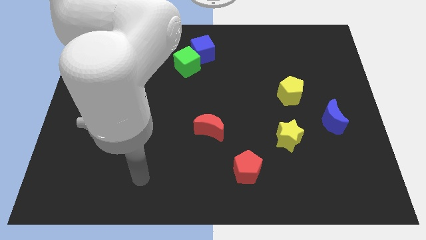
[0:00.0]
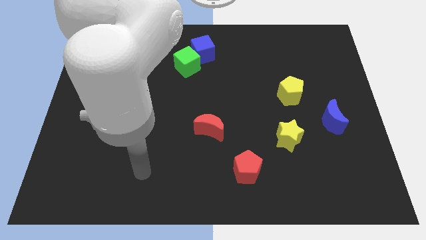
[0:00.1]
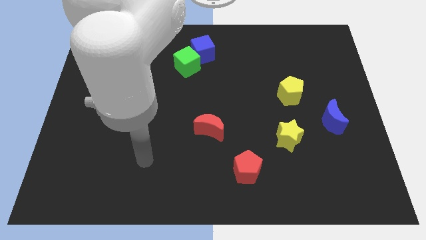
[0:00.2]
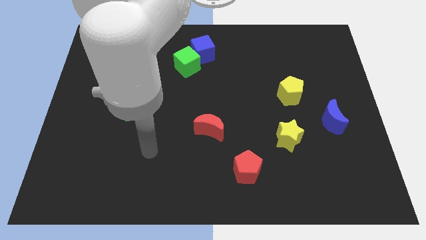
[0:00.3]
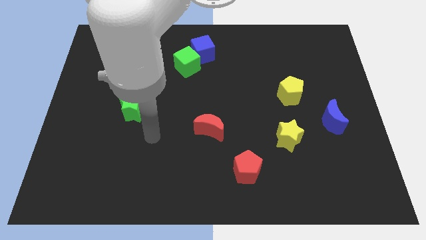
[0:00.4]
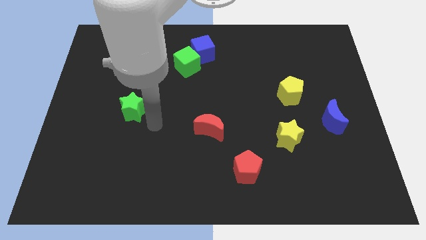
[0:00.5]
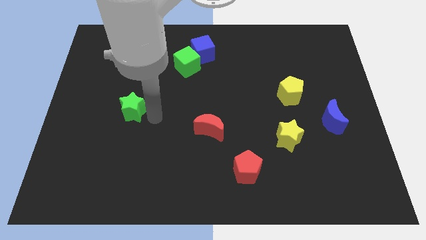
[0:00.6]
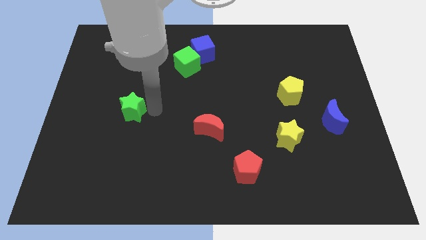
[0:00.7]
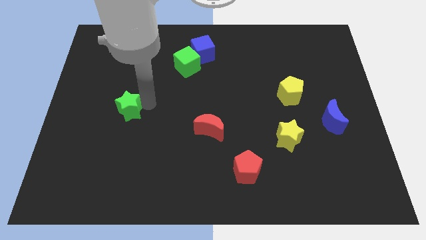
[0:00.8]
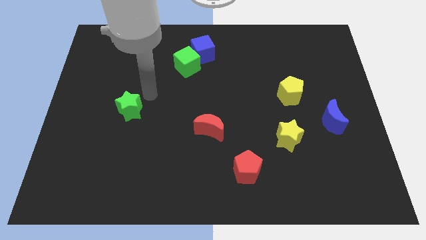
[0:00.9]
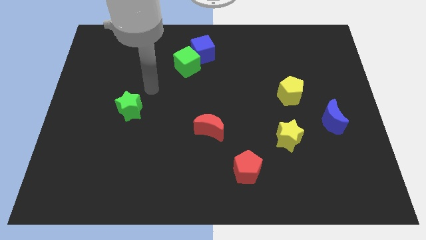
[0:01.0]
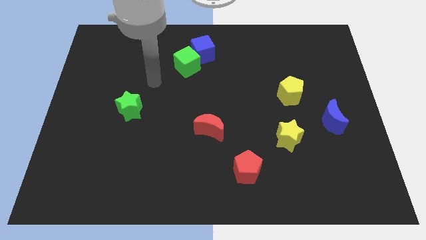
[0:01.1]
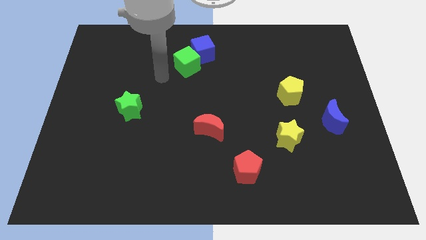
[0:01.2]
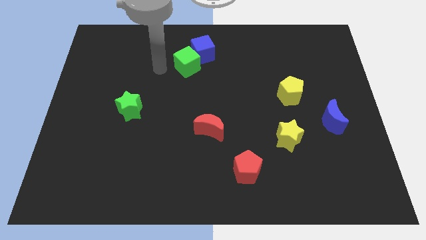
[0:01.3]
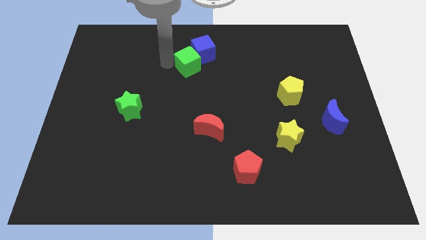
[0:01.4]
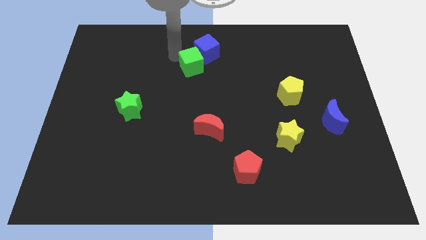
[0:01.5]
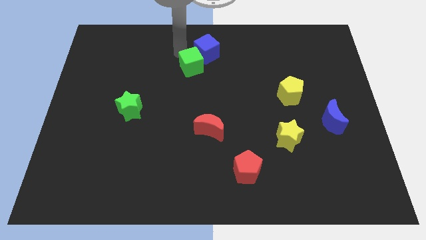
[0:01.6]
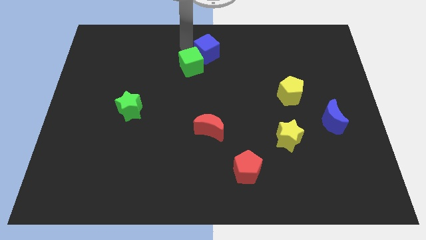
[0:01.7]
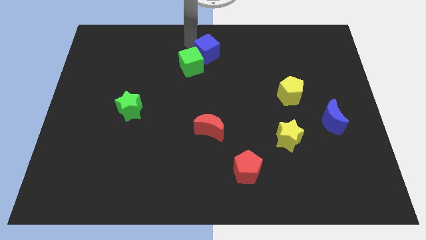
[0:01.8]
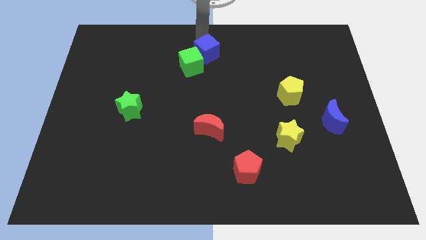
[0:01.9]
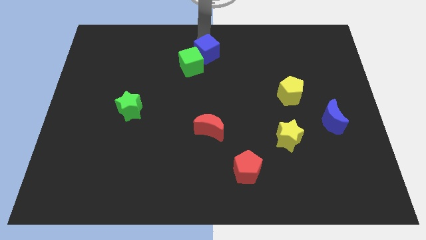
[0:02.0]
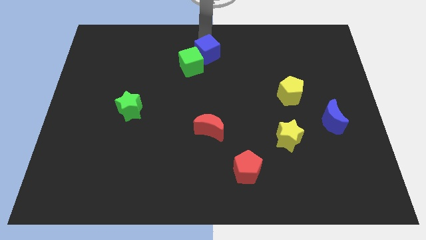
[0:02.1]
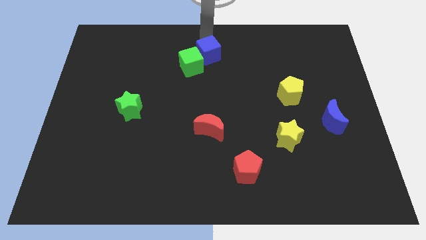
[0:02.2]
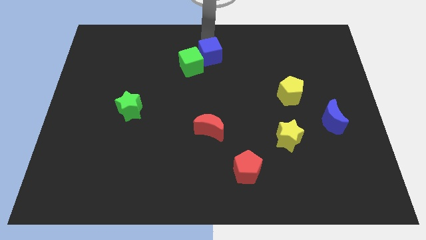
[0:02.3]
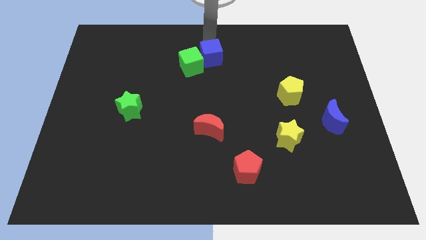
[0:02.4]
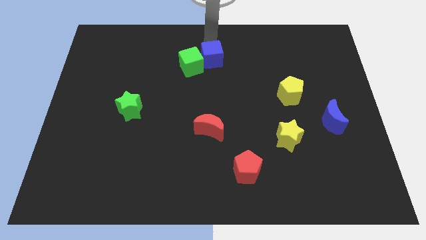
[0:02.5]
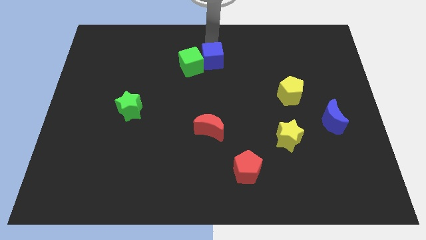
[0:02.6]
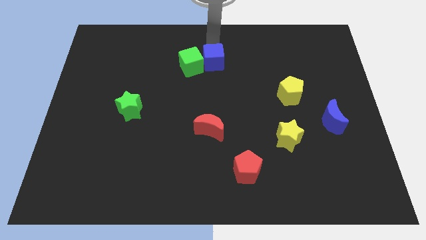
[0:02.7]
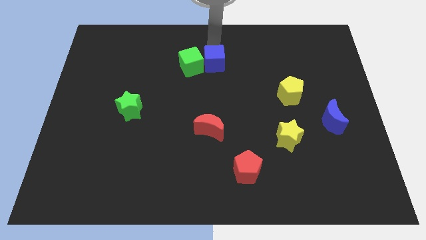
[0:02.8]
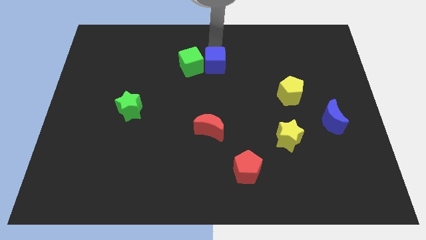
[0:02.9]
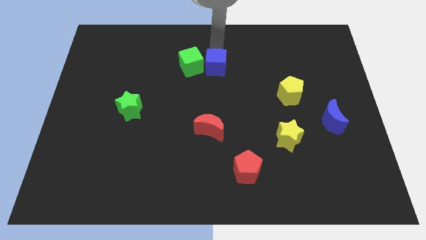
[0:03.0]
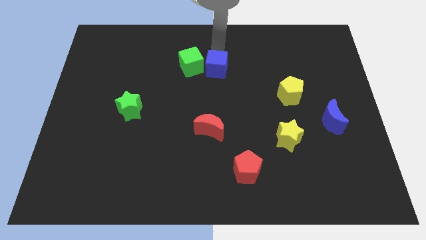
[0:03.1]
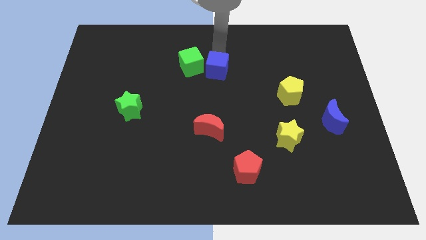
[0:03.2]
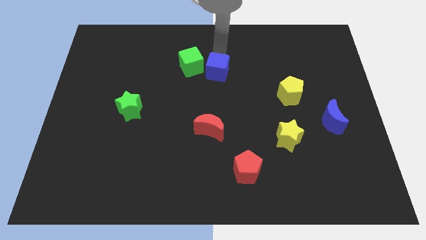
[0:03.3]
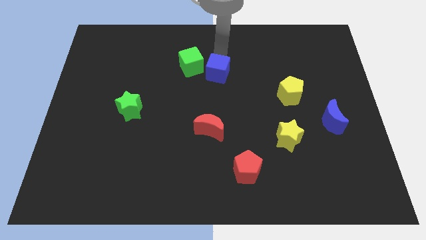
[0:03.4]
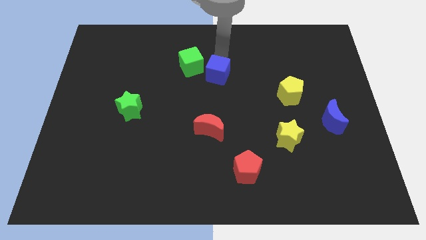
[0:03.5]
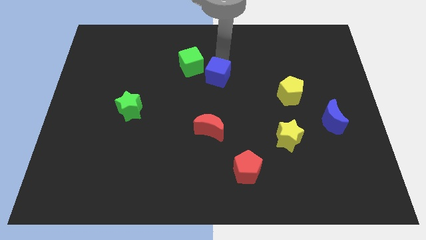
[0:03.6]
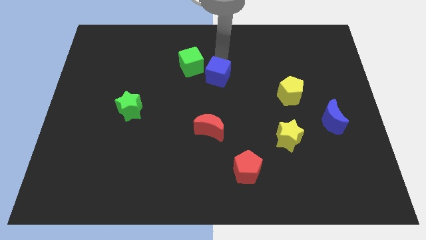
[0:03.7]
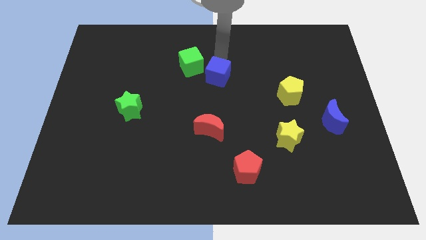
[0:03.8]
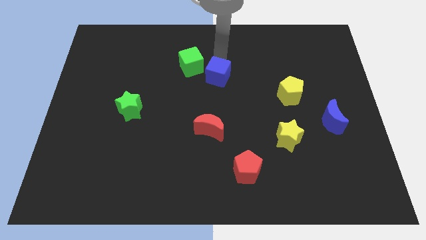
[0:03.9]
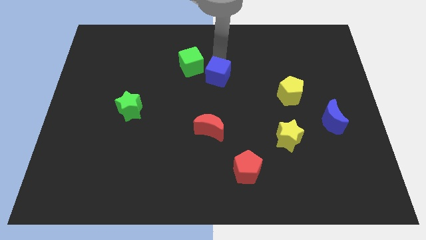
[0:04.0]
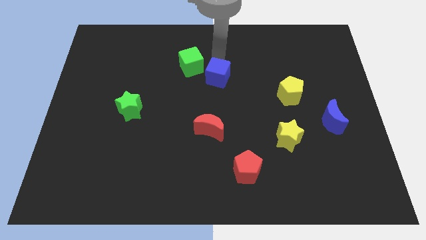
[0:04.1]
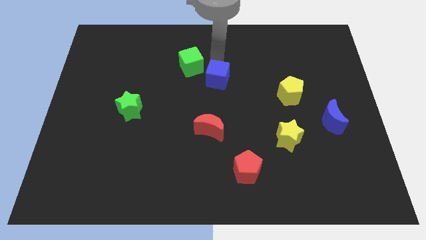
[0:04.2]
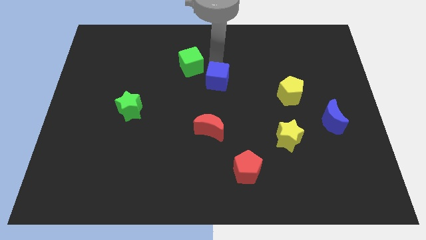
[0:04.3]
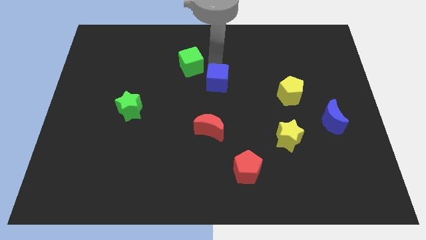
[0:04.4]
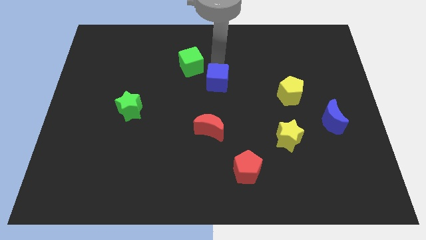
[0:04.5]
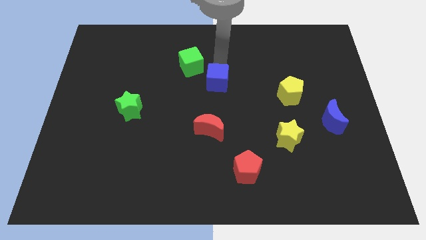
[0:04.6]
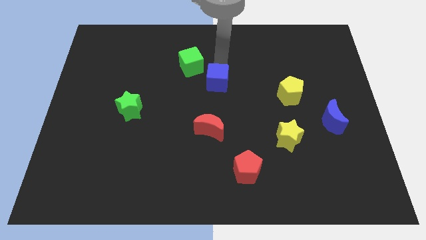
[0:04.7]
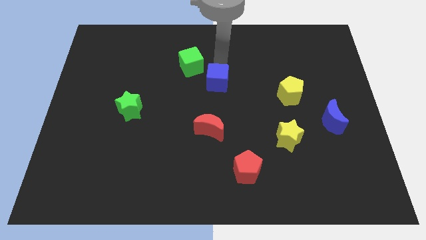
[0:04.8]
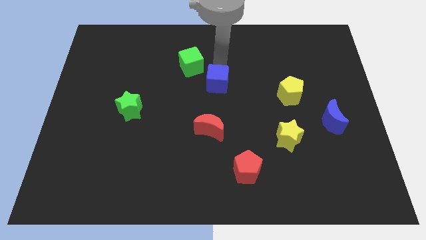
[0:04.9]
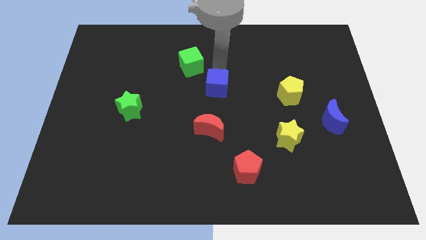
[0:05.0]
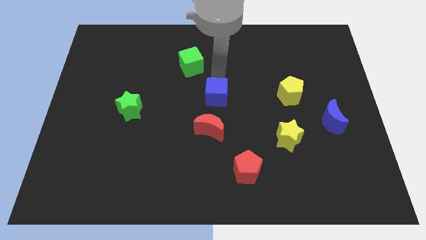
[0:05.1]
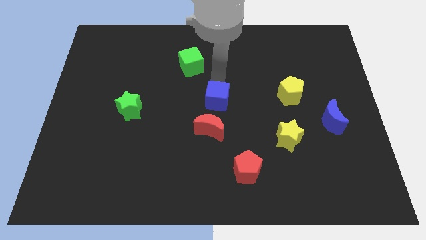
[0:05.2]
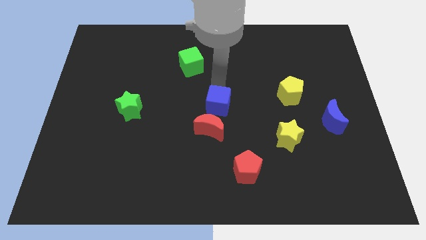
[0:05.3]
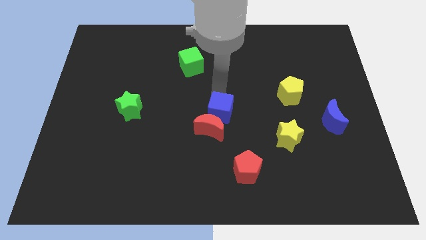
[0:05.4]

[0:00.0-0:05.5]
put the blue cube next to the red moon

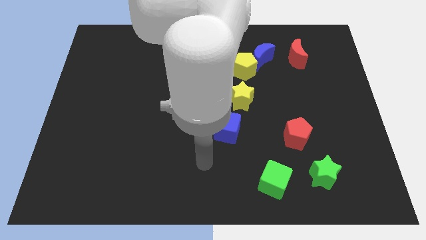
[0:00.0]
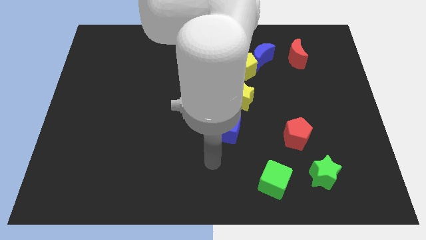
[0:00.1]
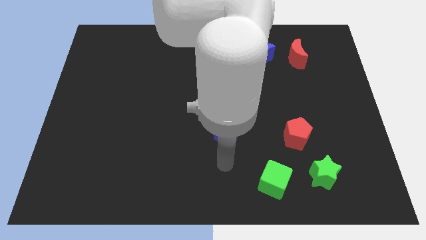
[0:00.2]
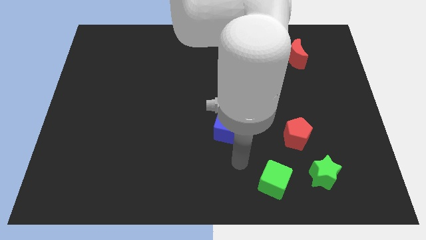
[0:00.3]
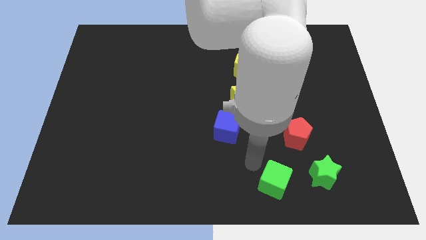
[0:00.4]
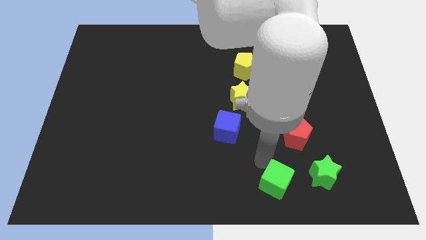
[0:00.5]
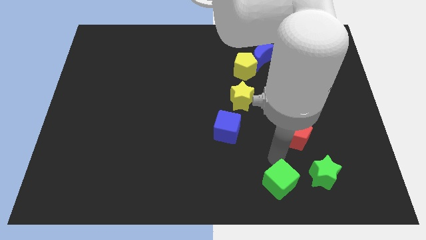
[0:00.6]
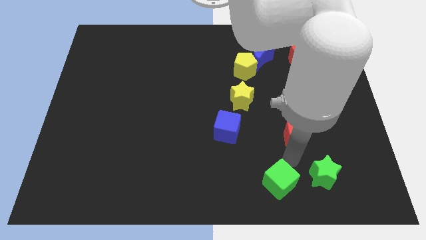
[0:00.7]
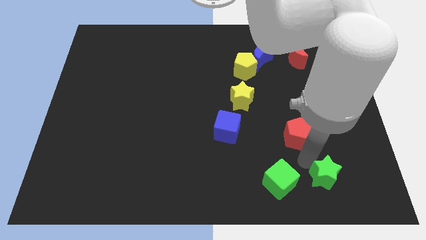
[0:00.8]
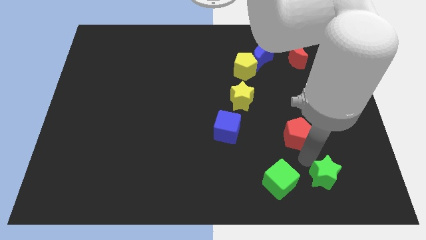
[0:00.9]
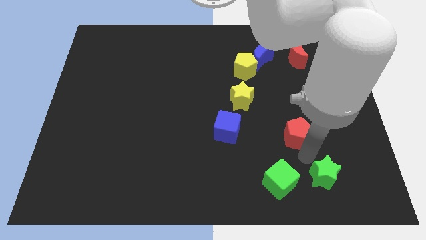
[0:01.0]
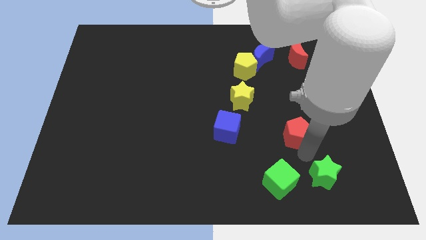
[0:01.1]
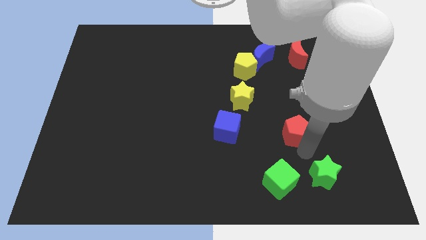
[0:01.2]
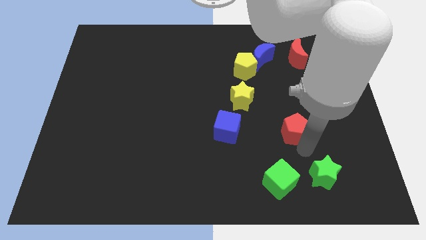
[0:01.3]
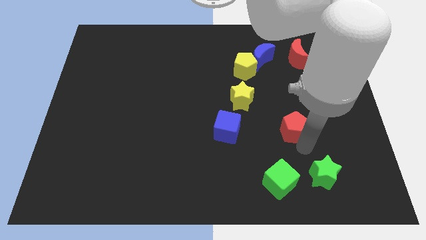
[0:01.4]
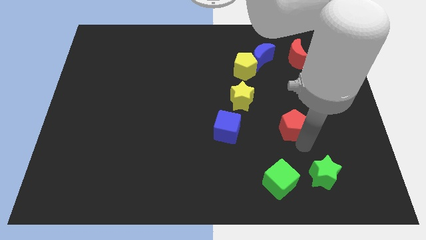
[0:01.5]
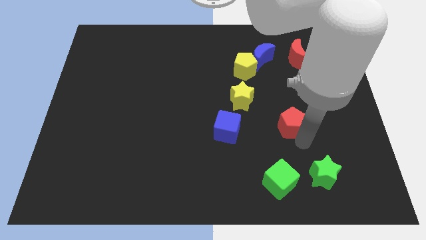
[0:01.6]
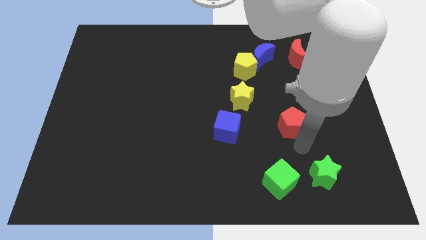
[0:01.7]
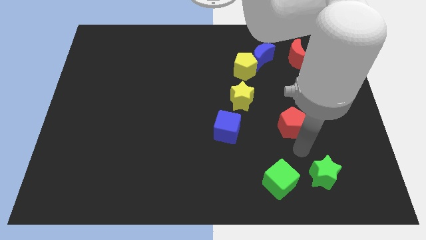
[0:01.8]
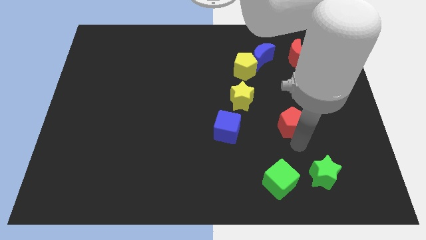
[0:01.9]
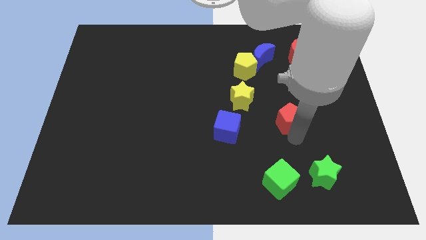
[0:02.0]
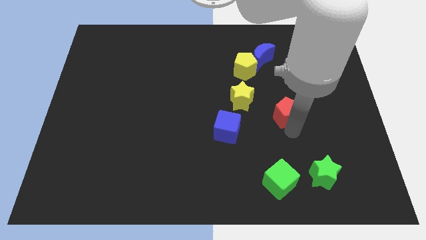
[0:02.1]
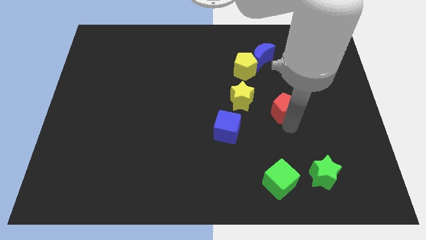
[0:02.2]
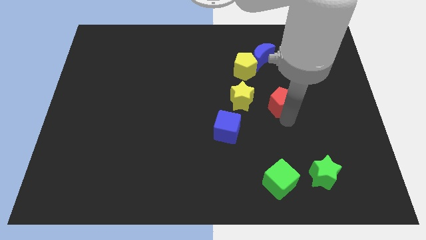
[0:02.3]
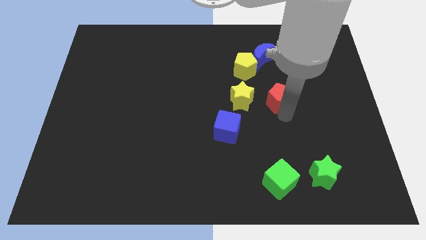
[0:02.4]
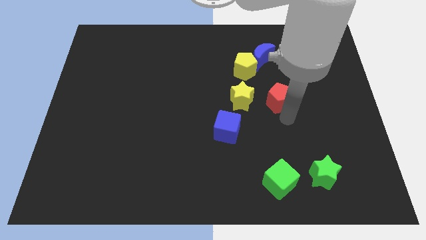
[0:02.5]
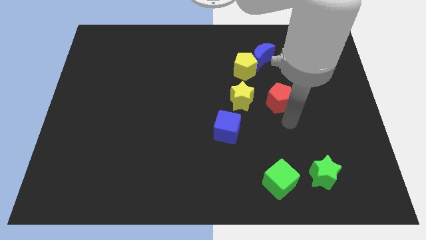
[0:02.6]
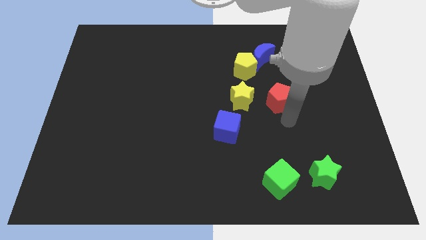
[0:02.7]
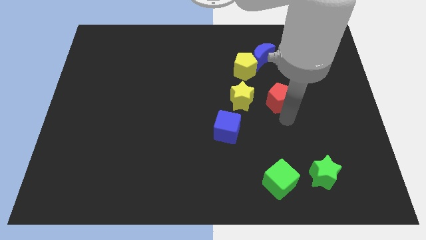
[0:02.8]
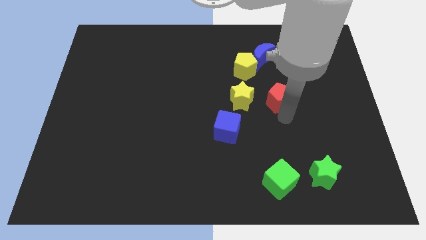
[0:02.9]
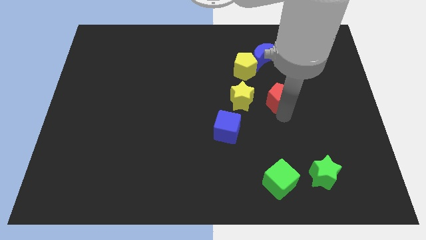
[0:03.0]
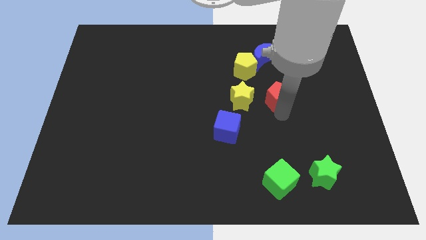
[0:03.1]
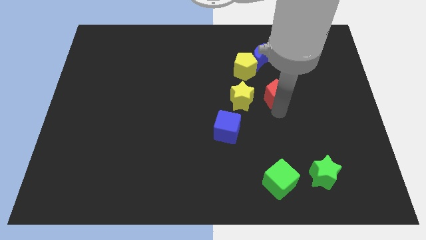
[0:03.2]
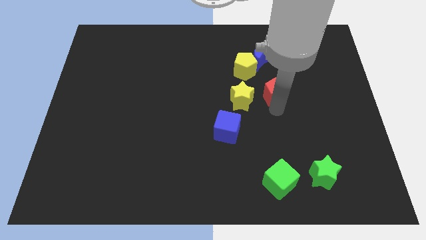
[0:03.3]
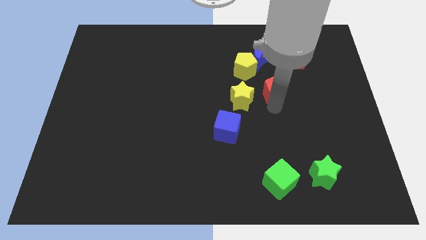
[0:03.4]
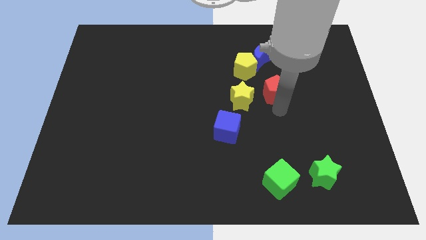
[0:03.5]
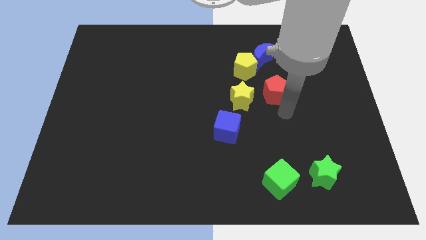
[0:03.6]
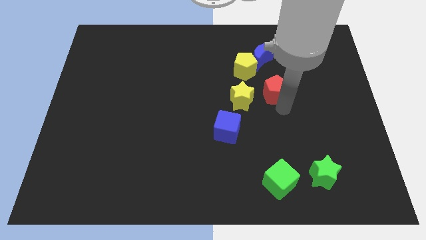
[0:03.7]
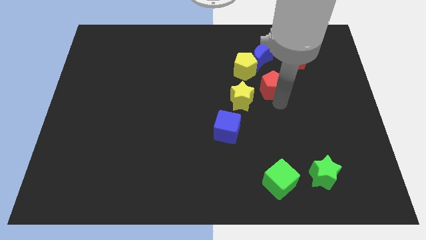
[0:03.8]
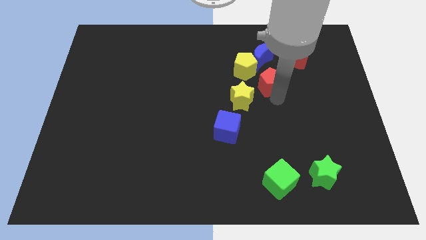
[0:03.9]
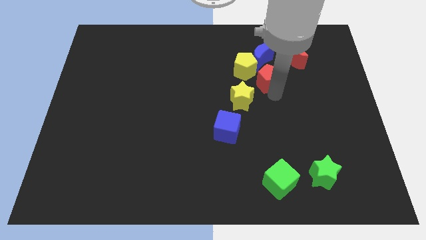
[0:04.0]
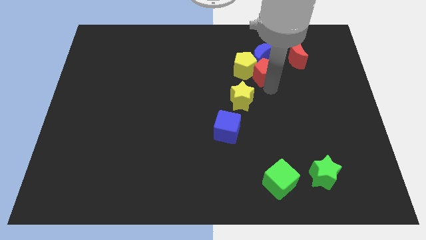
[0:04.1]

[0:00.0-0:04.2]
slide the red pentagon close to the blue moon
